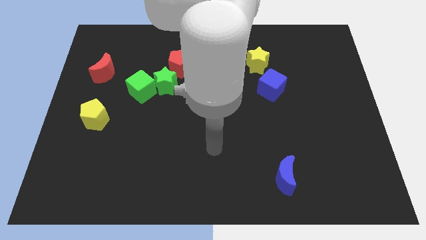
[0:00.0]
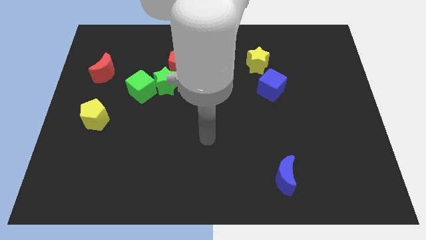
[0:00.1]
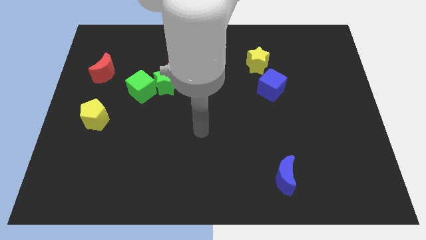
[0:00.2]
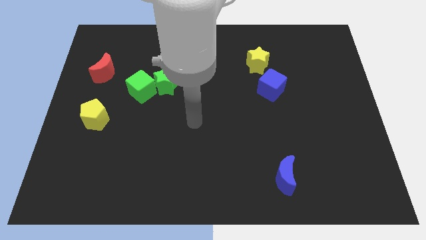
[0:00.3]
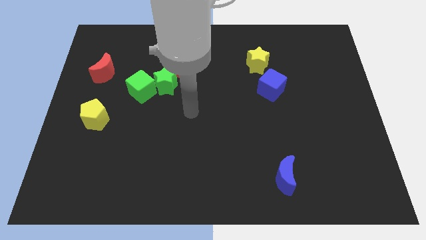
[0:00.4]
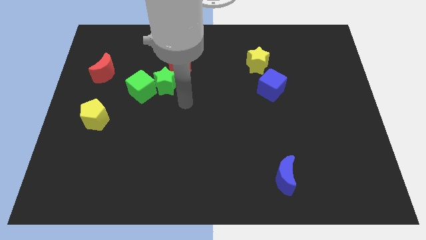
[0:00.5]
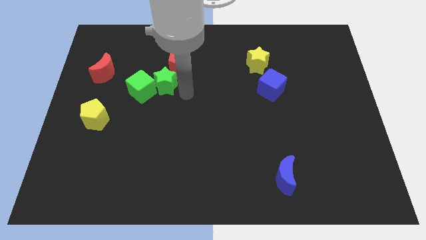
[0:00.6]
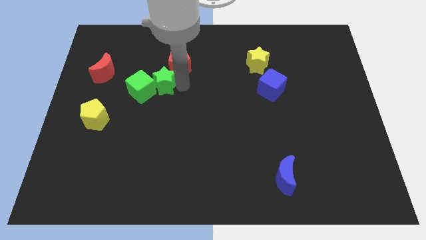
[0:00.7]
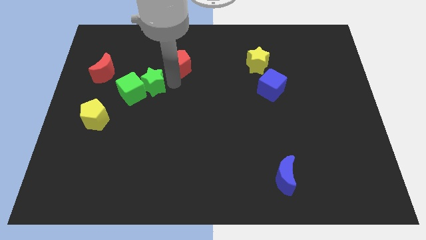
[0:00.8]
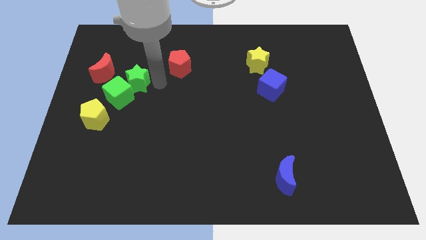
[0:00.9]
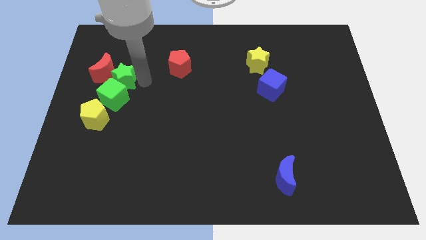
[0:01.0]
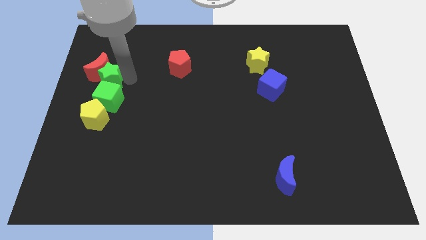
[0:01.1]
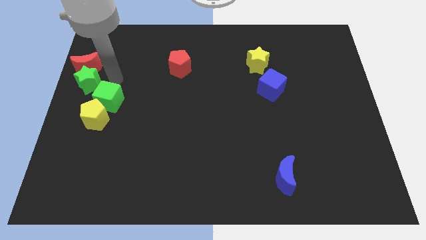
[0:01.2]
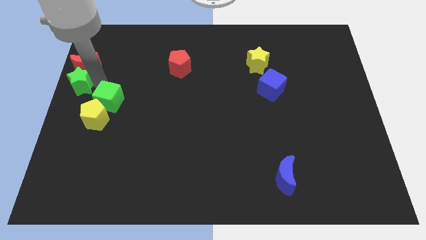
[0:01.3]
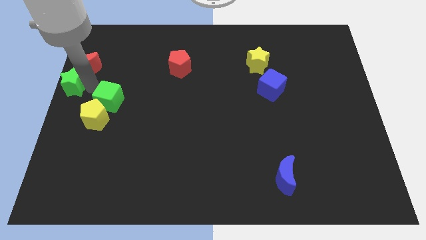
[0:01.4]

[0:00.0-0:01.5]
pull the green cube apart from the green star

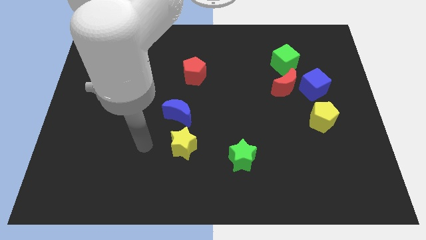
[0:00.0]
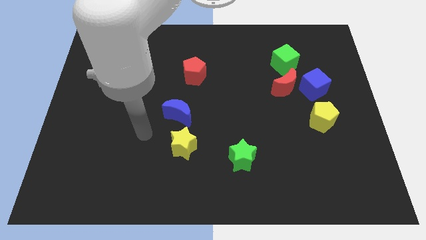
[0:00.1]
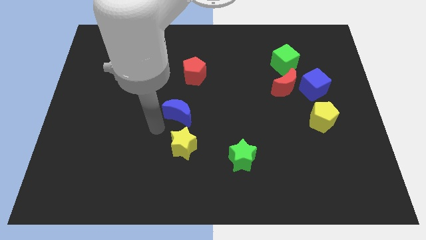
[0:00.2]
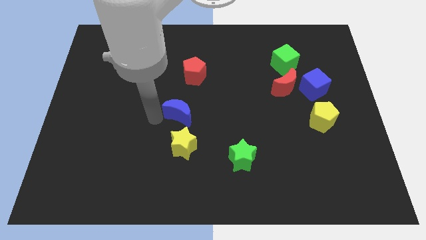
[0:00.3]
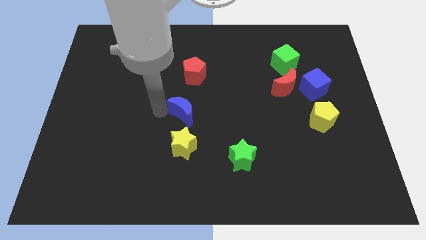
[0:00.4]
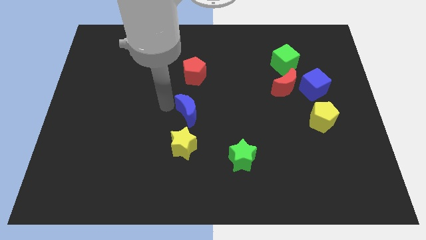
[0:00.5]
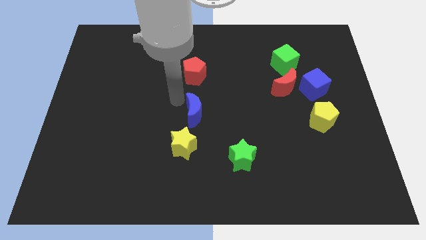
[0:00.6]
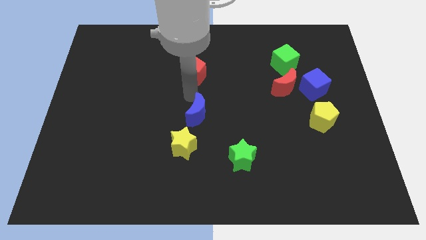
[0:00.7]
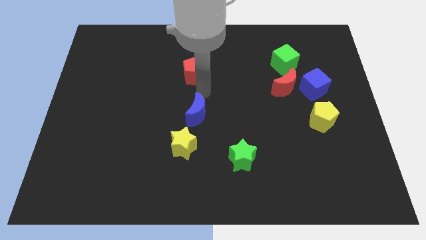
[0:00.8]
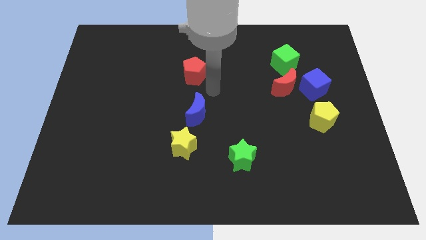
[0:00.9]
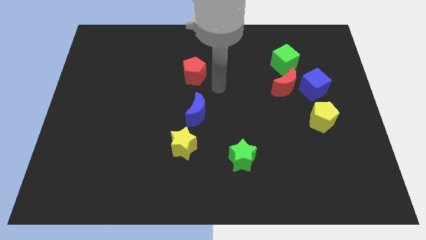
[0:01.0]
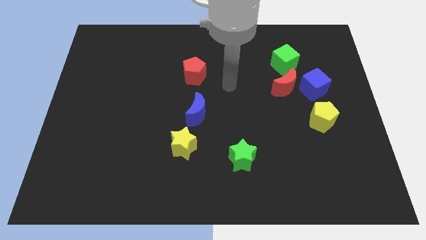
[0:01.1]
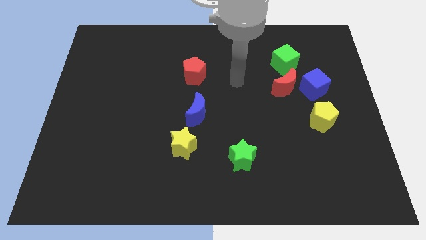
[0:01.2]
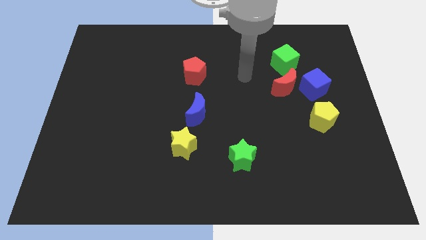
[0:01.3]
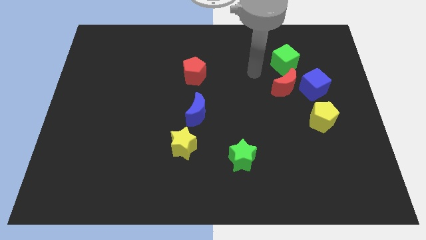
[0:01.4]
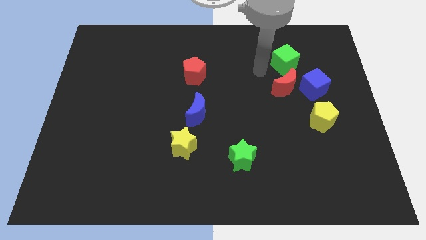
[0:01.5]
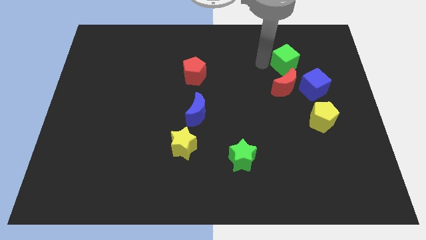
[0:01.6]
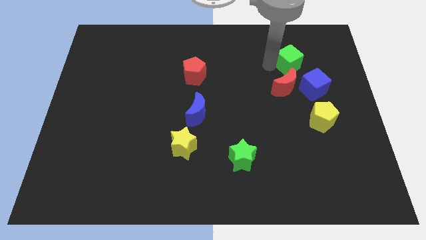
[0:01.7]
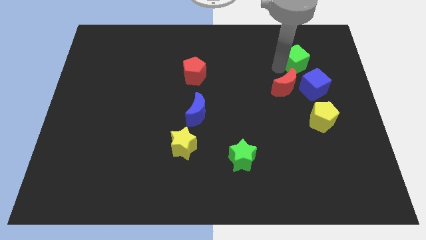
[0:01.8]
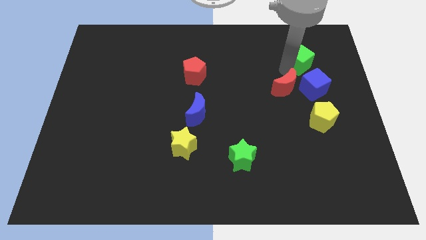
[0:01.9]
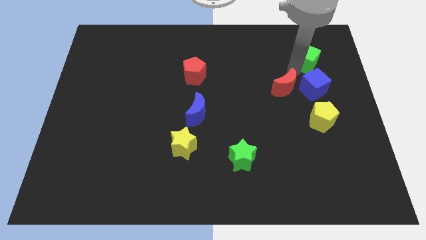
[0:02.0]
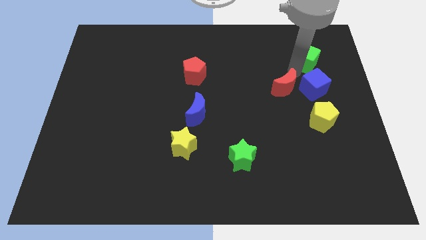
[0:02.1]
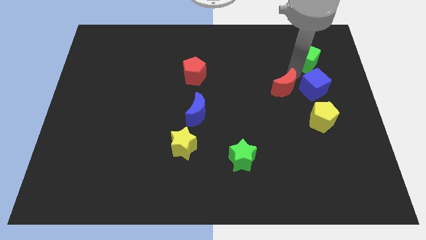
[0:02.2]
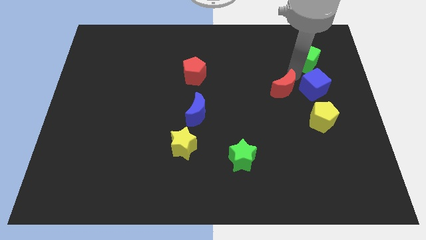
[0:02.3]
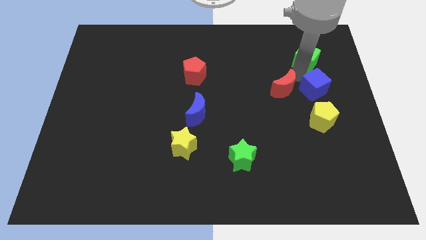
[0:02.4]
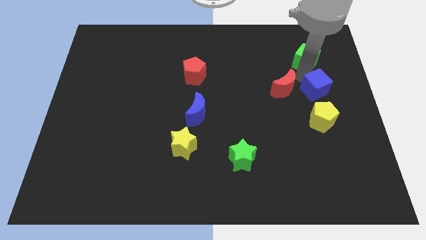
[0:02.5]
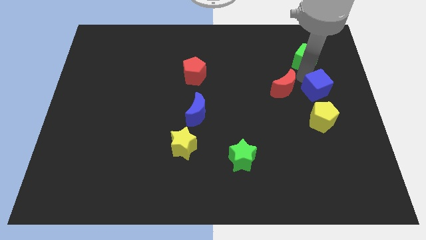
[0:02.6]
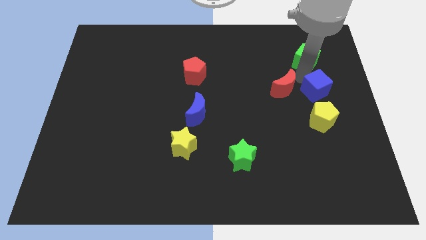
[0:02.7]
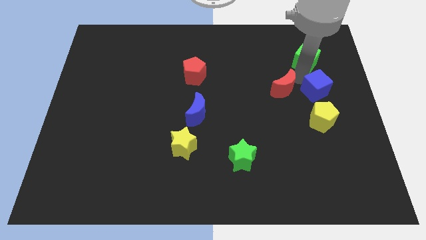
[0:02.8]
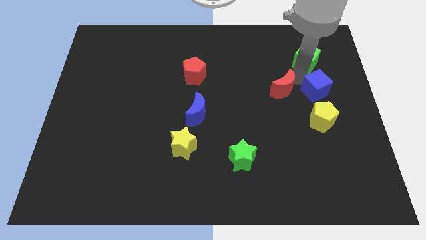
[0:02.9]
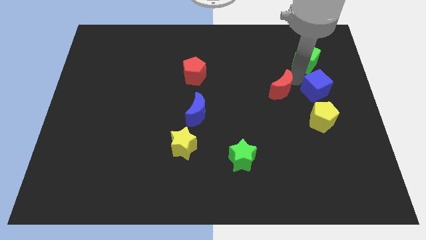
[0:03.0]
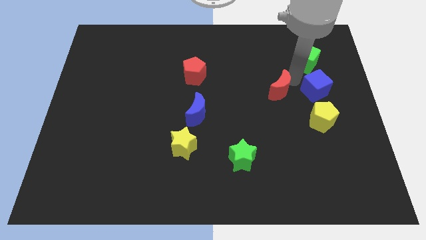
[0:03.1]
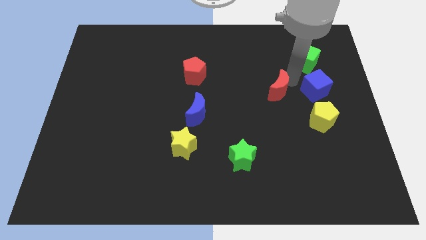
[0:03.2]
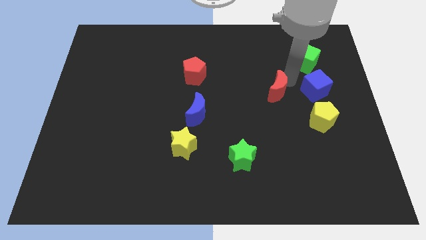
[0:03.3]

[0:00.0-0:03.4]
separate the red moon from the blue cube and green cube

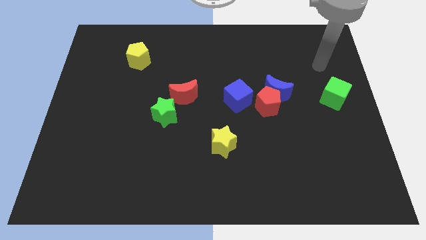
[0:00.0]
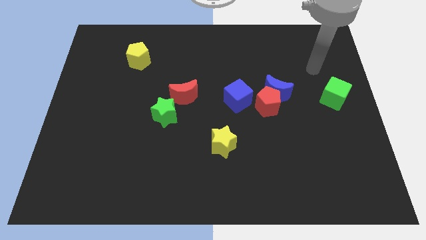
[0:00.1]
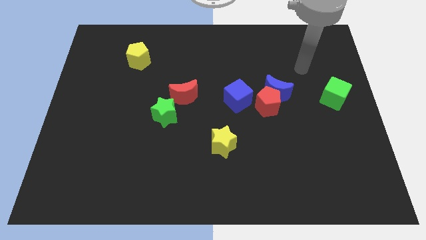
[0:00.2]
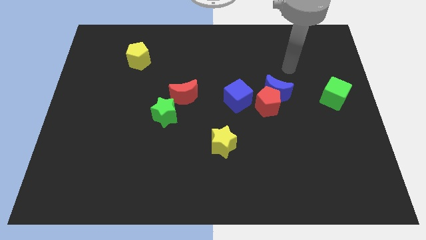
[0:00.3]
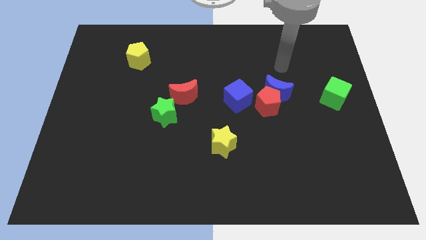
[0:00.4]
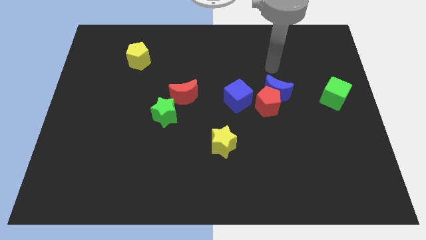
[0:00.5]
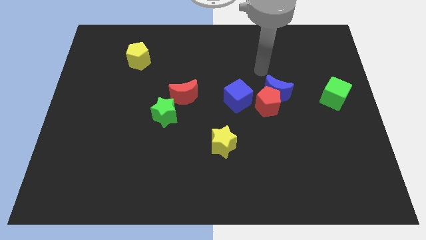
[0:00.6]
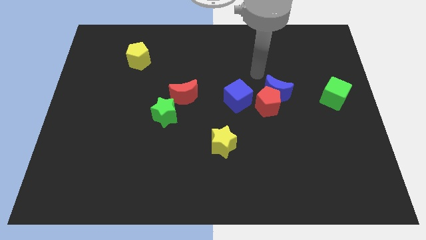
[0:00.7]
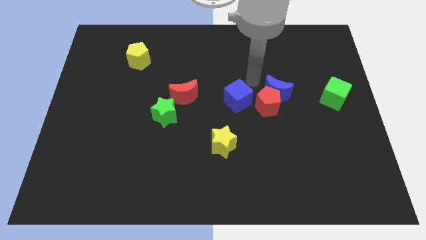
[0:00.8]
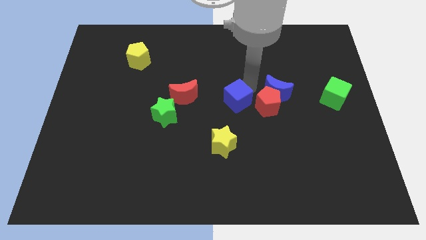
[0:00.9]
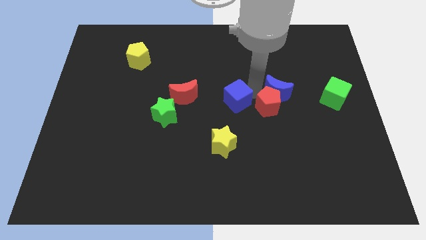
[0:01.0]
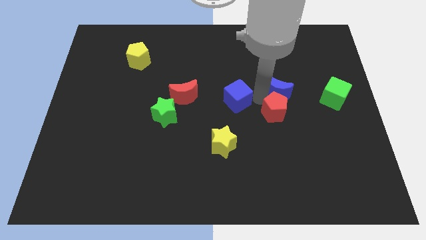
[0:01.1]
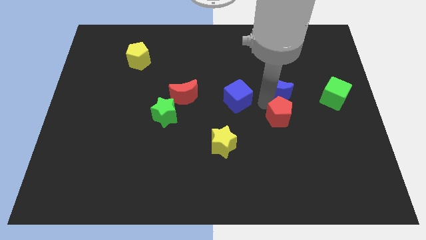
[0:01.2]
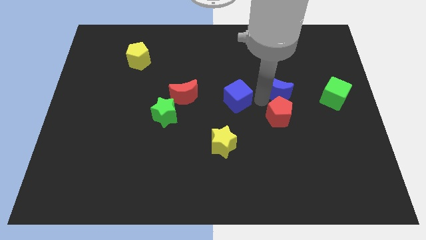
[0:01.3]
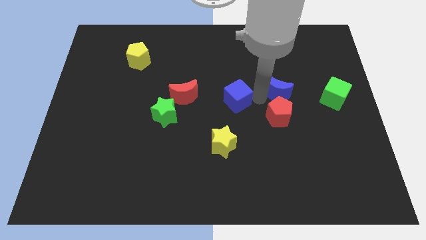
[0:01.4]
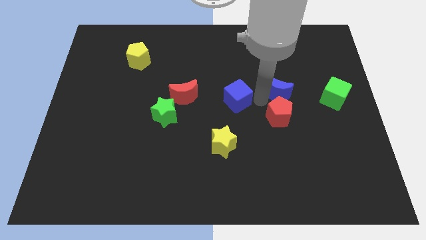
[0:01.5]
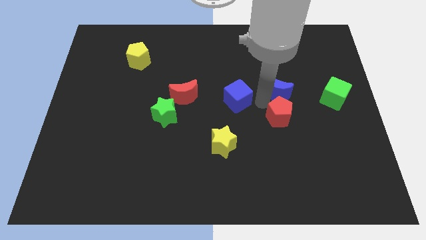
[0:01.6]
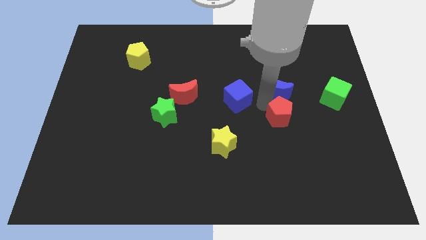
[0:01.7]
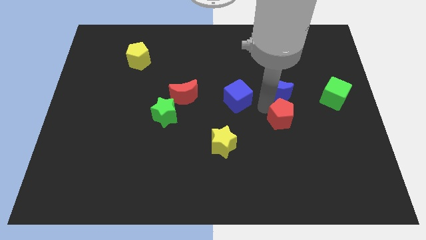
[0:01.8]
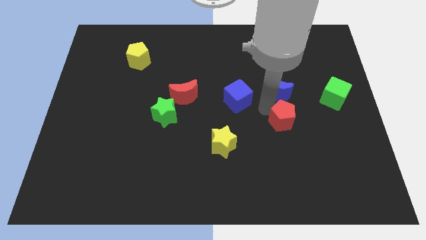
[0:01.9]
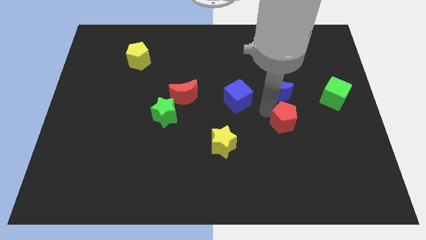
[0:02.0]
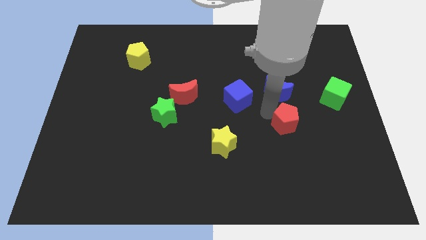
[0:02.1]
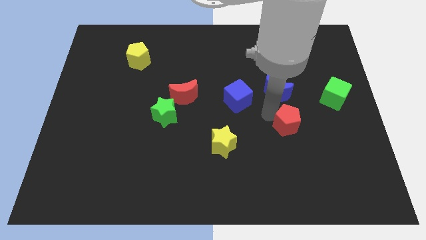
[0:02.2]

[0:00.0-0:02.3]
move the red pentagon away from the blue moon and blue cube

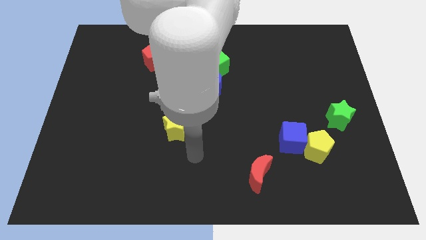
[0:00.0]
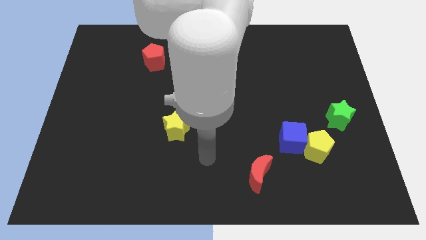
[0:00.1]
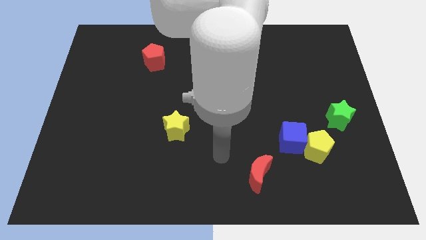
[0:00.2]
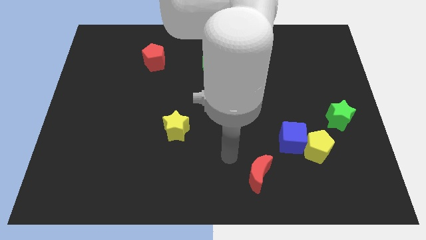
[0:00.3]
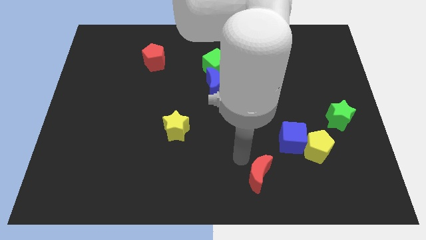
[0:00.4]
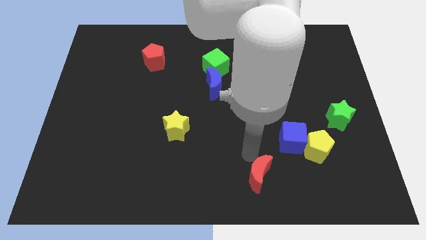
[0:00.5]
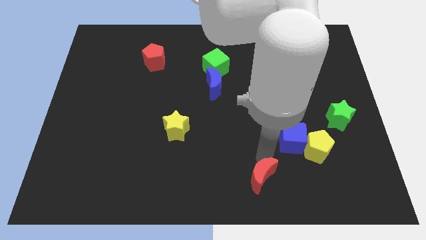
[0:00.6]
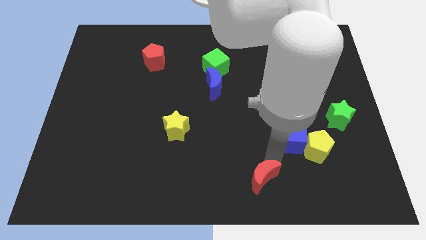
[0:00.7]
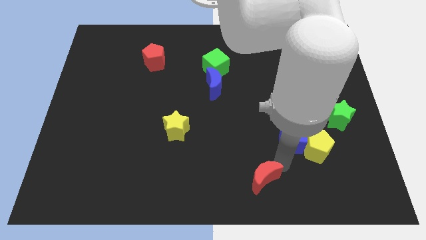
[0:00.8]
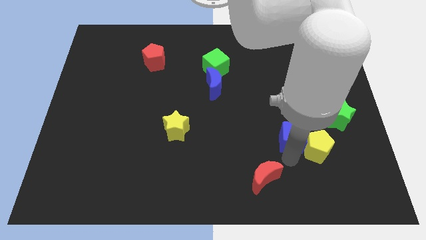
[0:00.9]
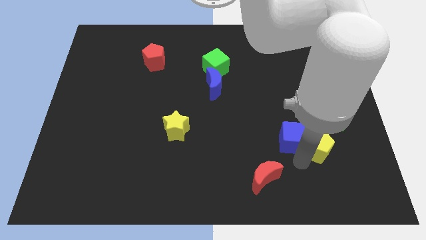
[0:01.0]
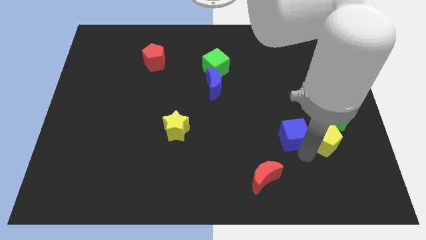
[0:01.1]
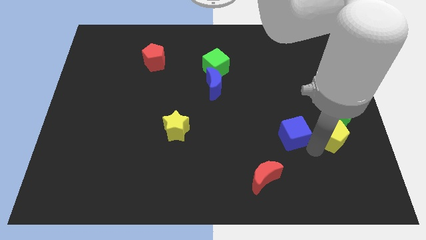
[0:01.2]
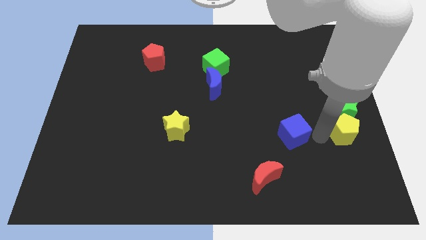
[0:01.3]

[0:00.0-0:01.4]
separate the blue cube from the yellow pentagon

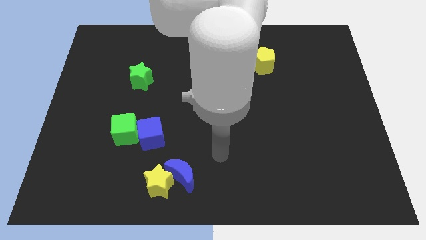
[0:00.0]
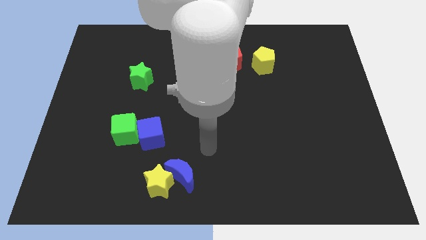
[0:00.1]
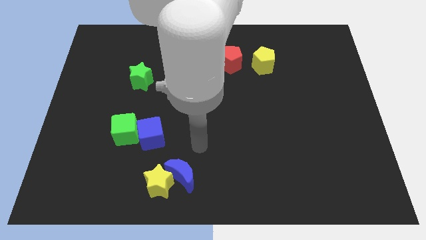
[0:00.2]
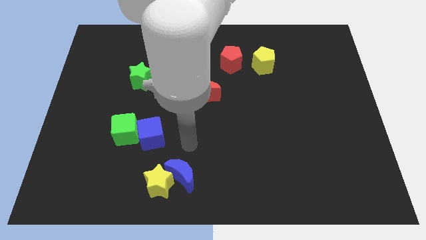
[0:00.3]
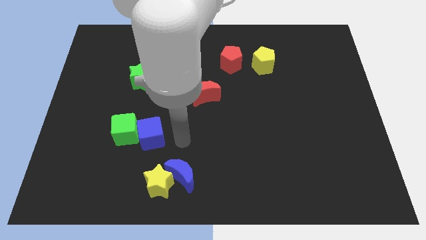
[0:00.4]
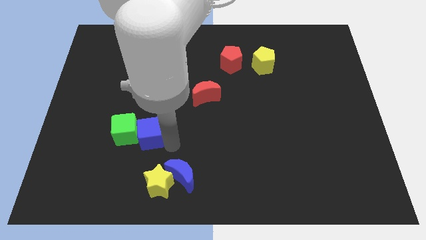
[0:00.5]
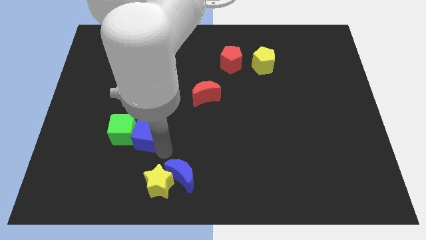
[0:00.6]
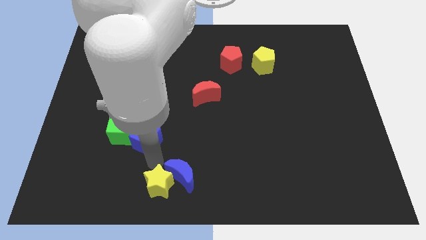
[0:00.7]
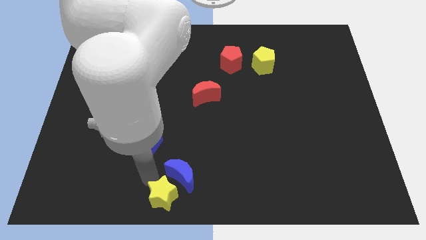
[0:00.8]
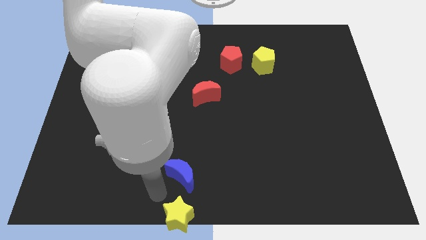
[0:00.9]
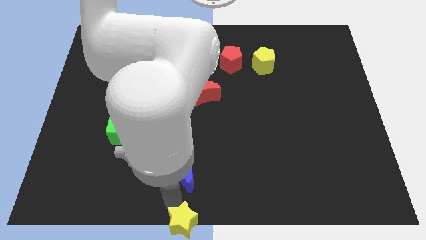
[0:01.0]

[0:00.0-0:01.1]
pull the blue moon apart from the yellow star
